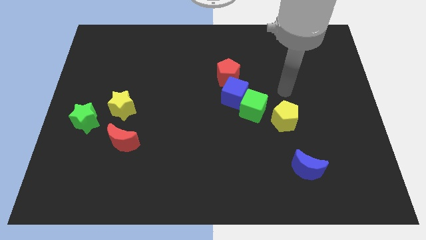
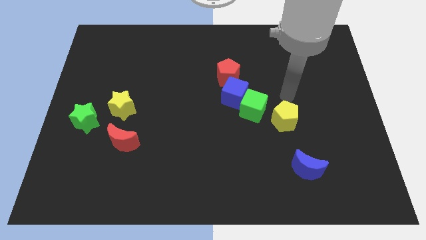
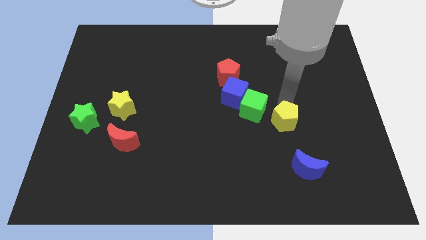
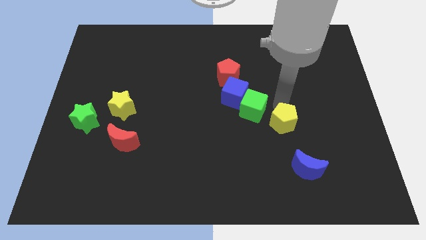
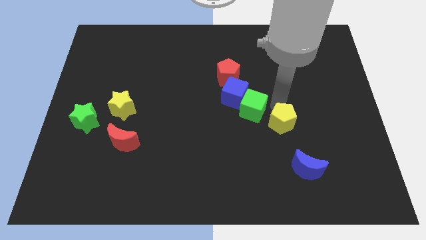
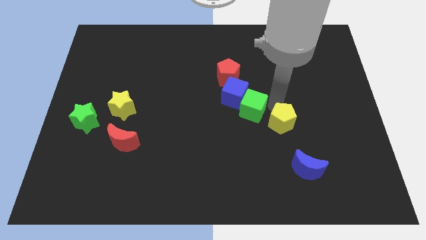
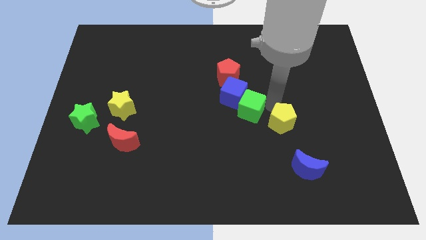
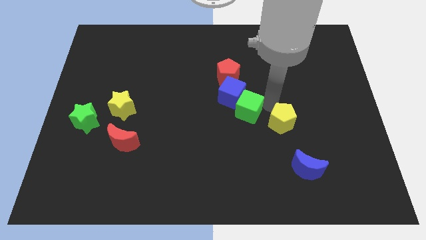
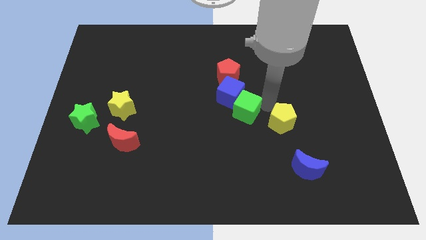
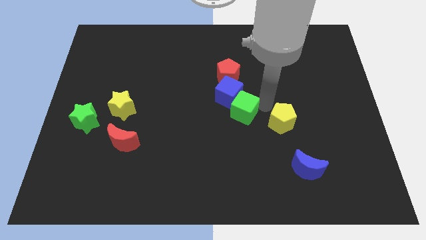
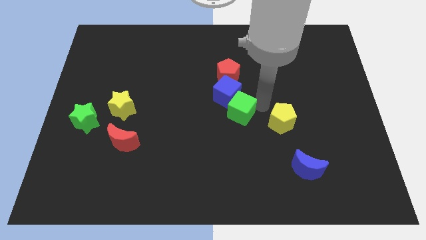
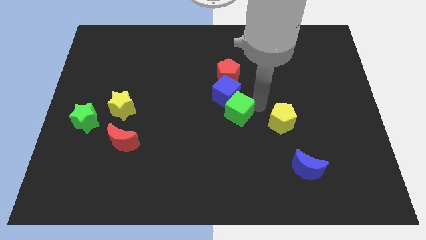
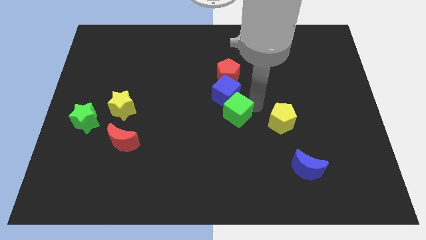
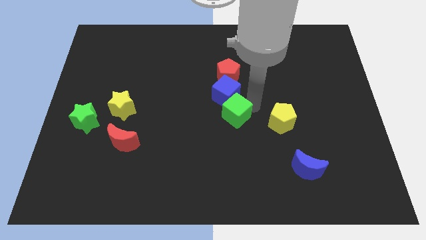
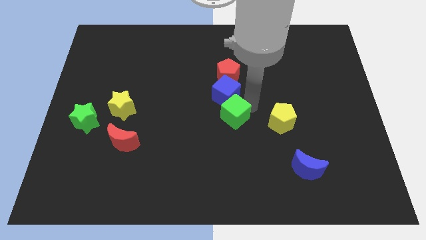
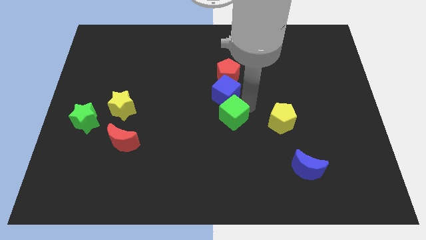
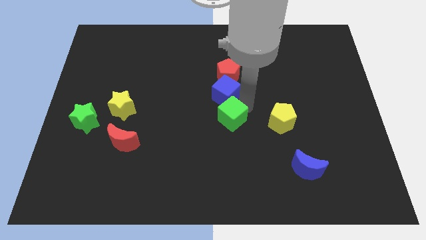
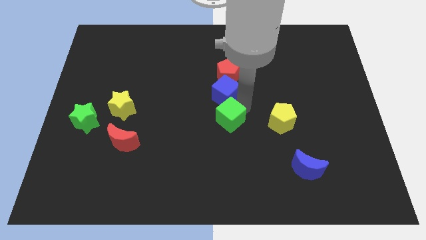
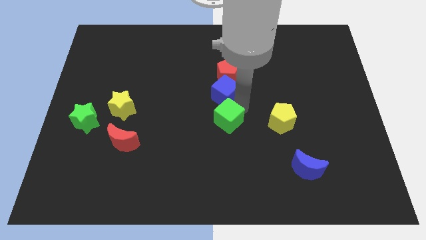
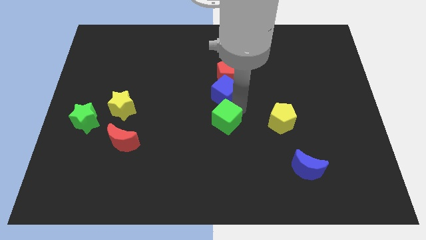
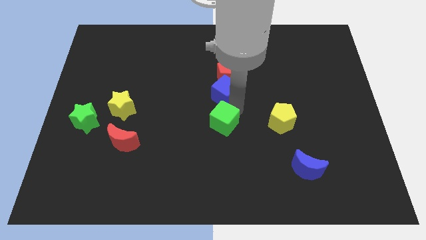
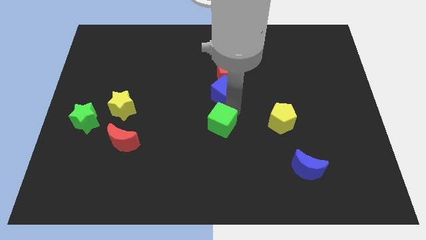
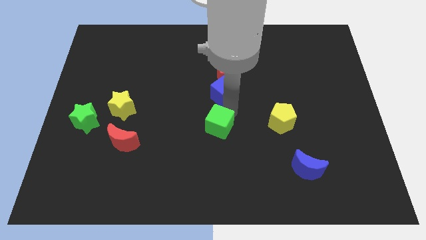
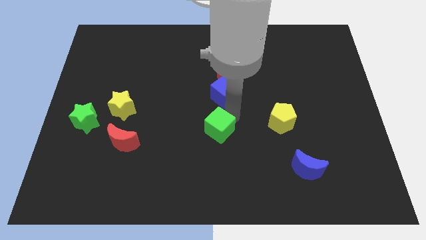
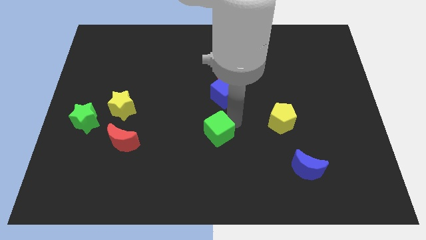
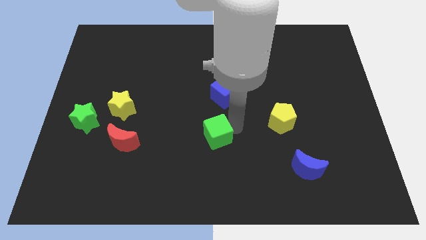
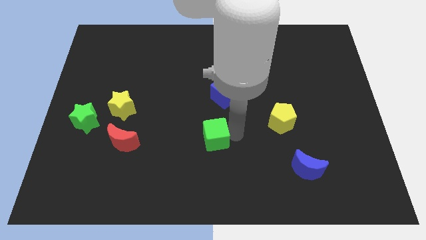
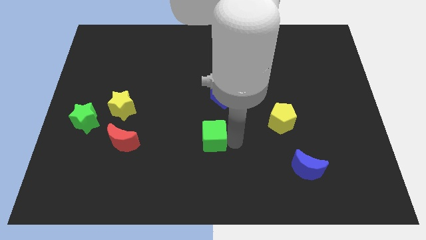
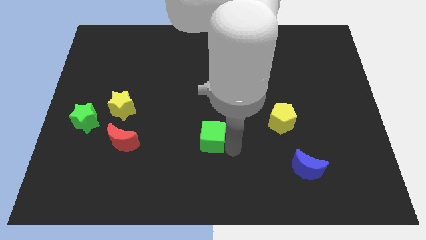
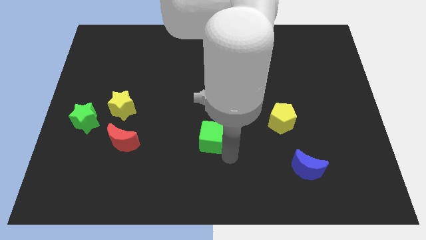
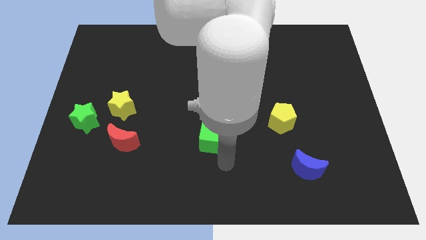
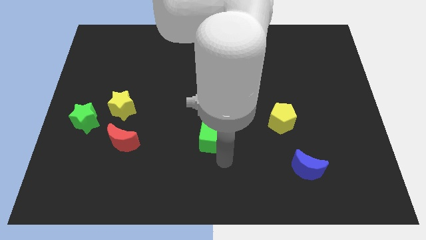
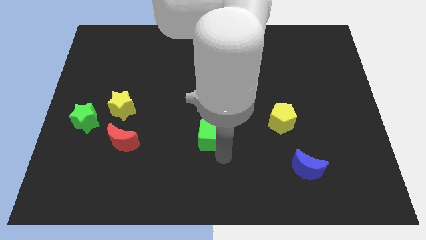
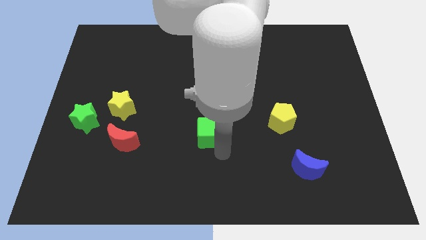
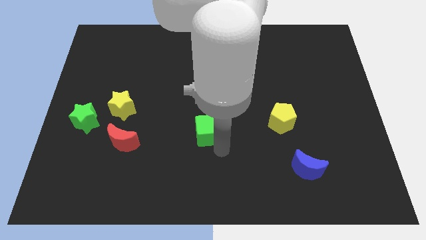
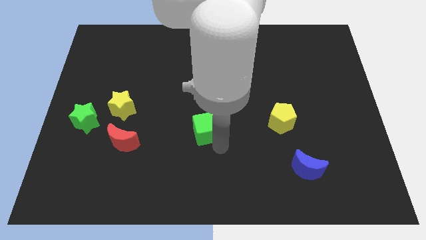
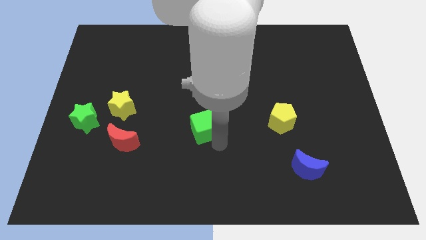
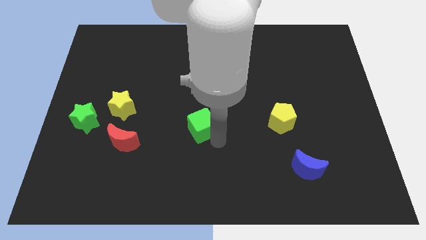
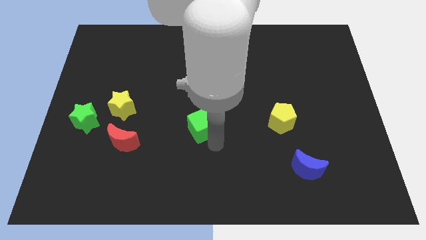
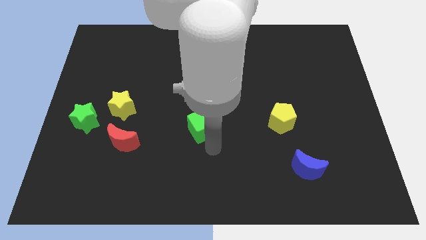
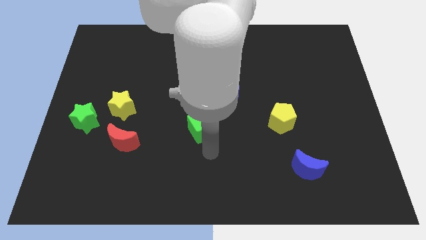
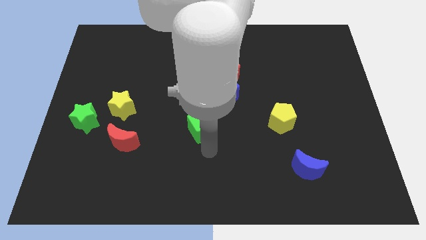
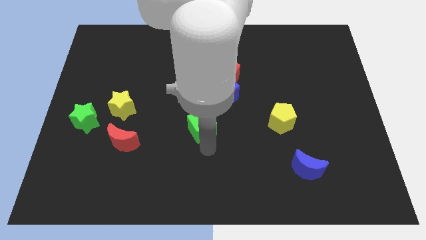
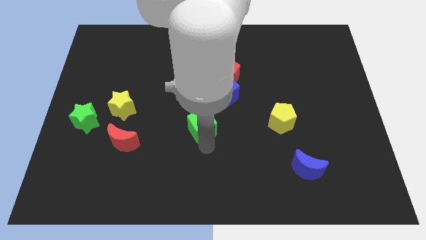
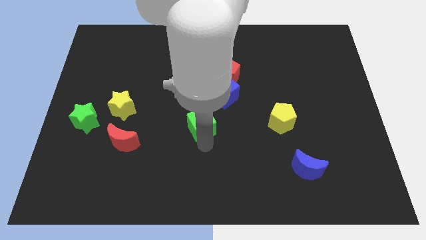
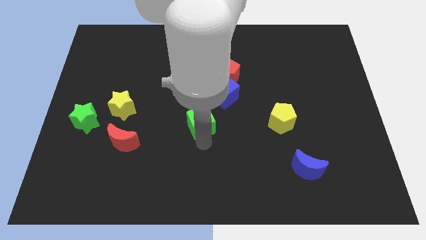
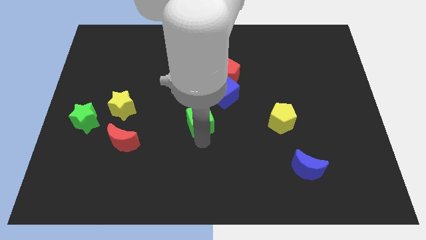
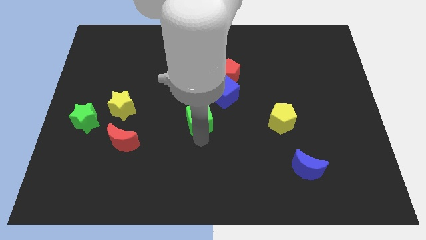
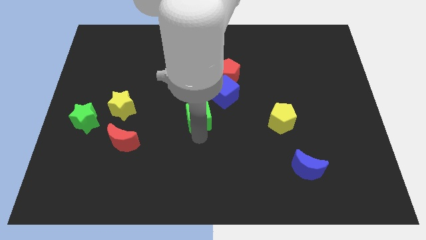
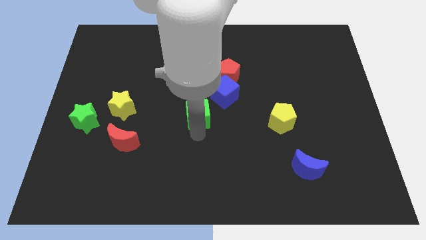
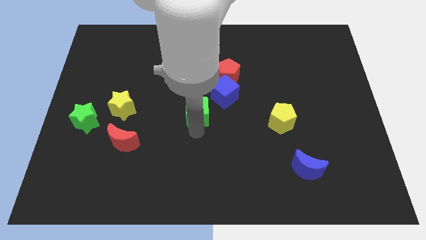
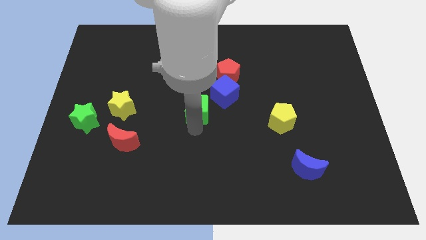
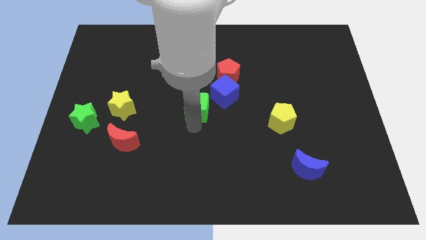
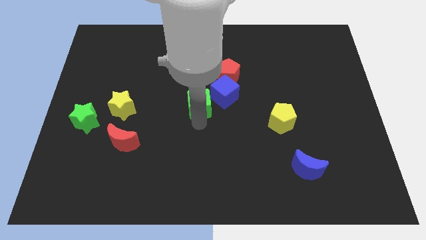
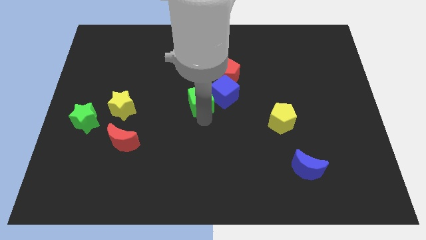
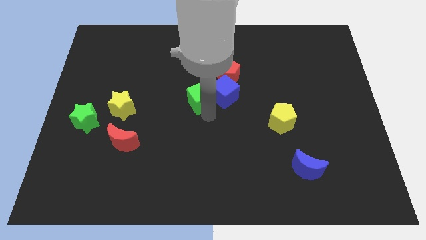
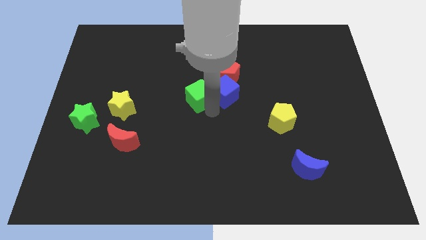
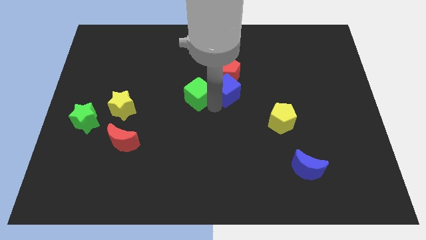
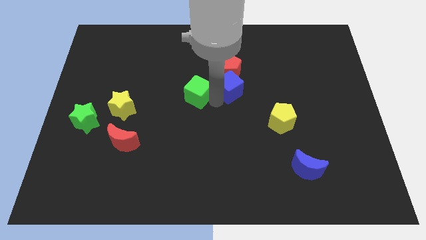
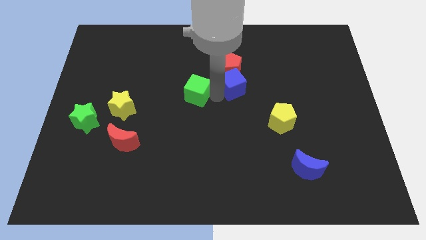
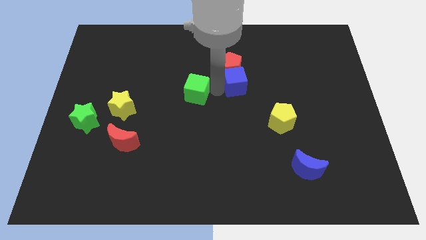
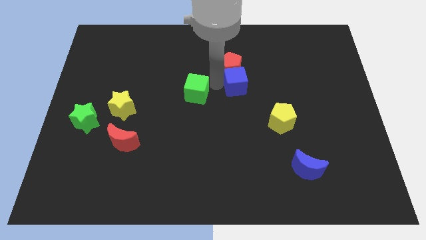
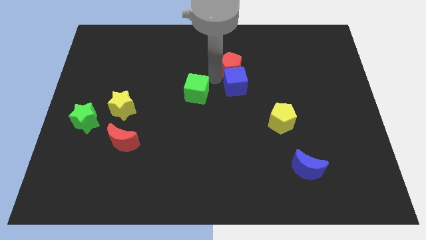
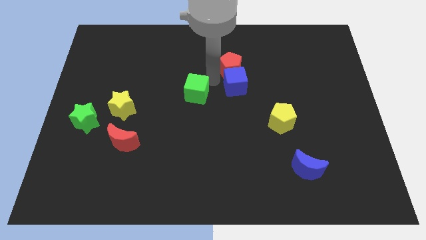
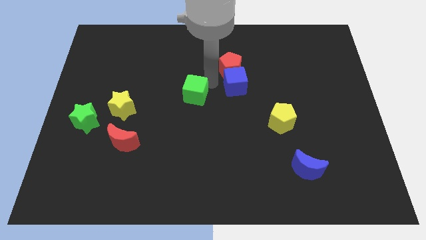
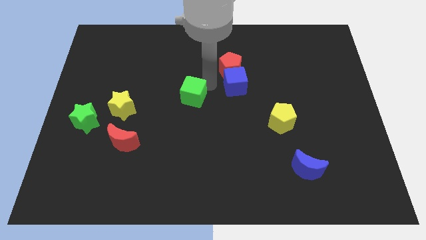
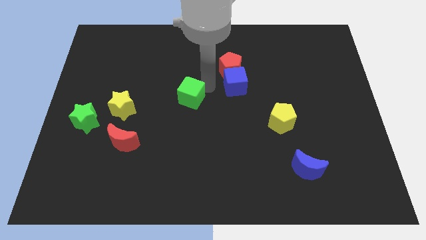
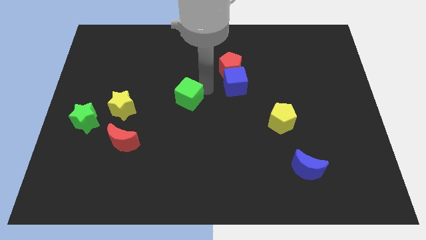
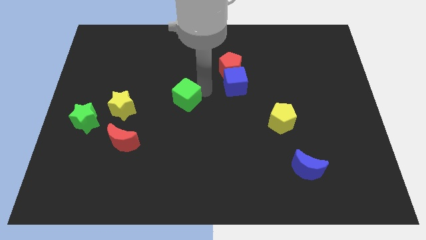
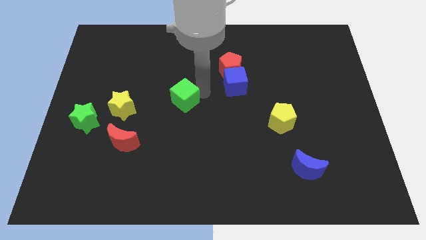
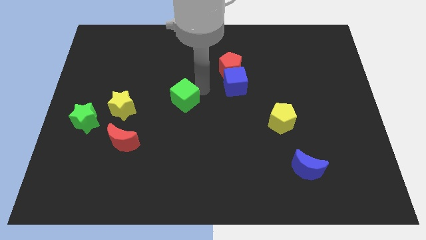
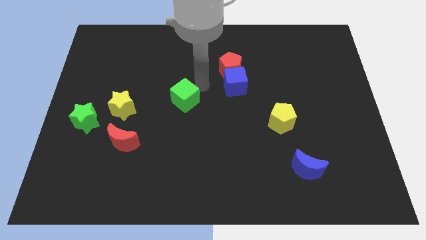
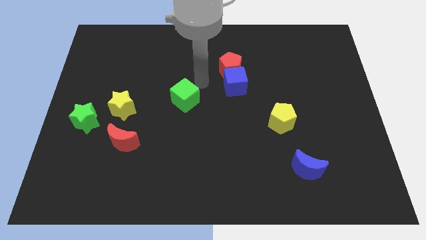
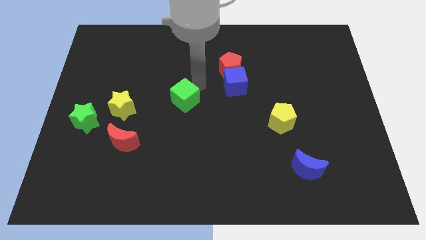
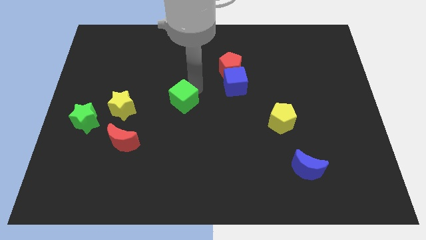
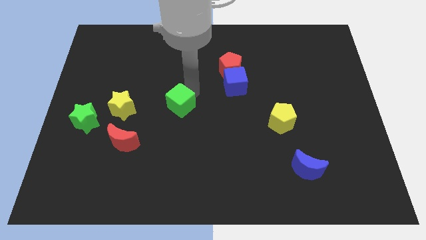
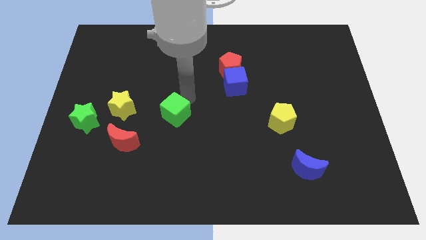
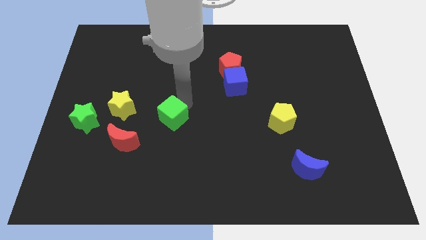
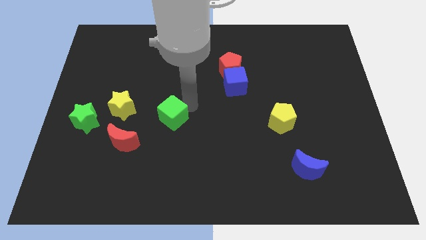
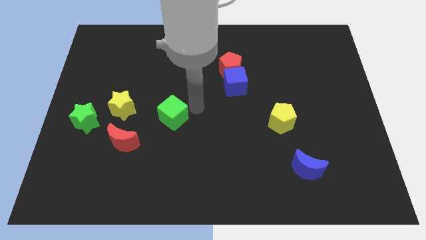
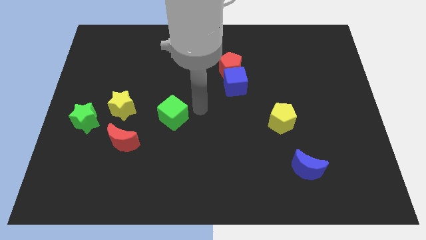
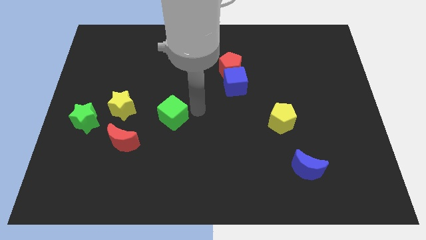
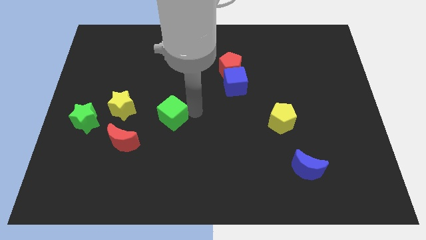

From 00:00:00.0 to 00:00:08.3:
move the green cube to the top right of the red moon
